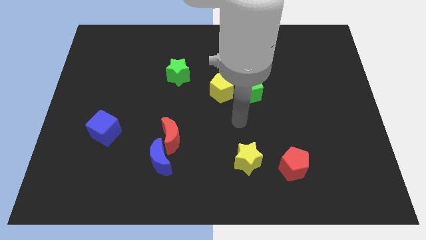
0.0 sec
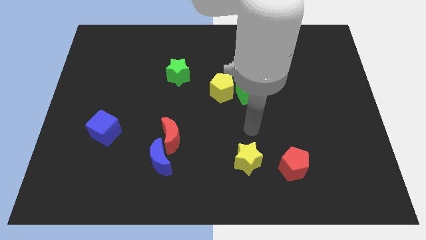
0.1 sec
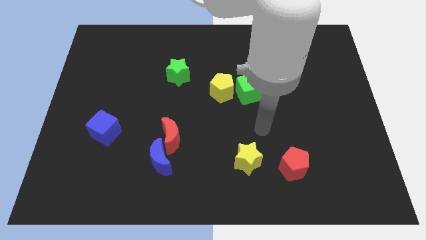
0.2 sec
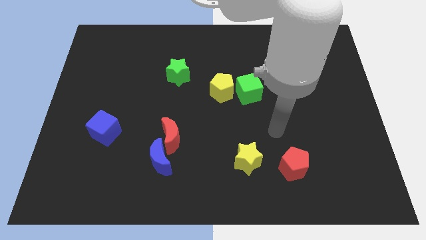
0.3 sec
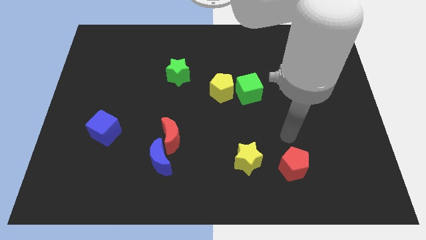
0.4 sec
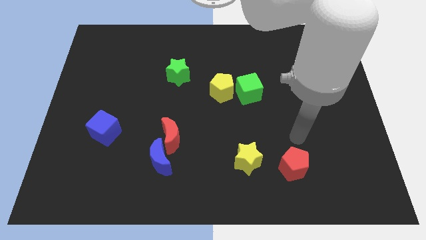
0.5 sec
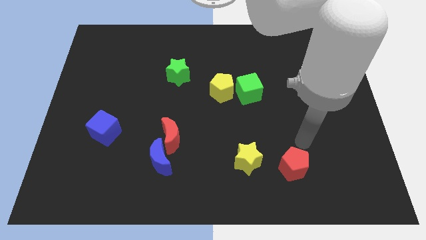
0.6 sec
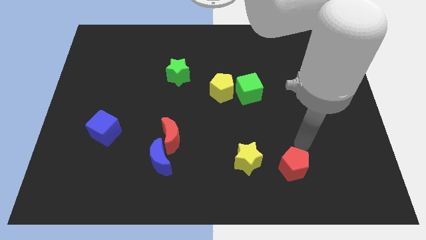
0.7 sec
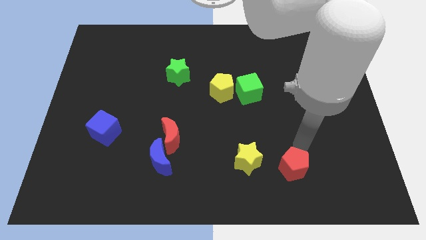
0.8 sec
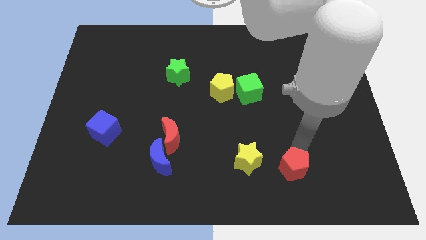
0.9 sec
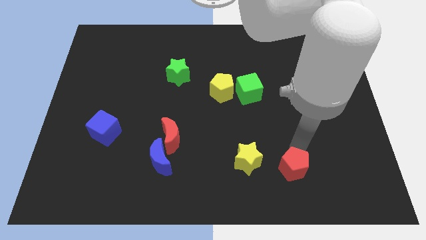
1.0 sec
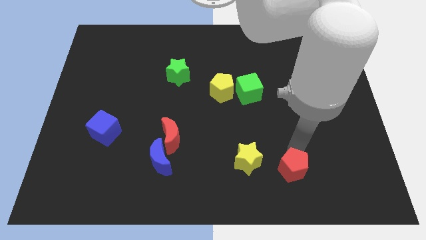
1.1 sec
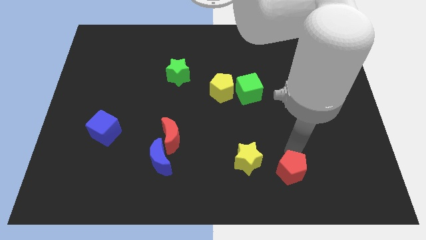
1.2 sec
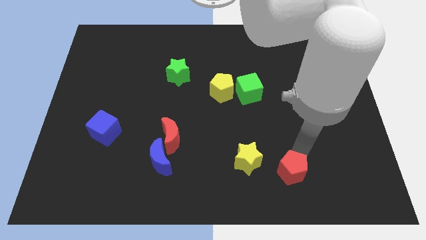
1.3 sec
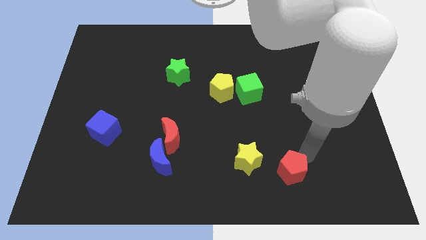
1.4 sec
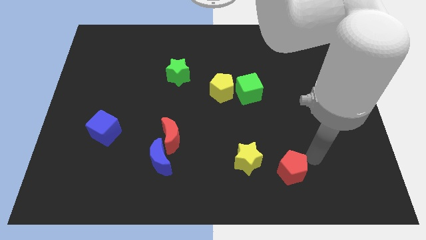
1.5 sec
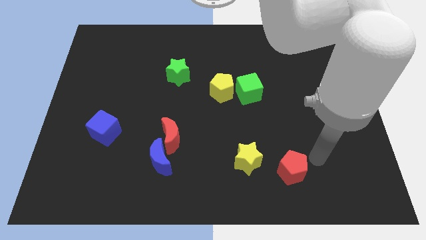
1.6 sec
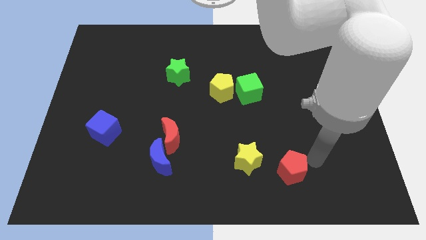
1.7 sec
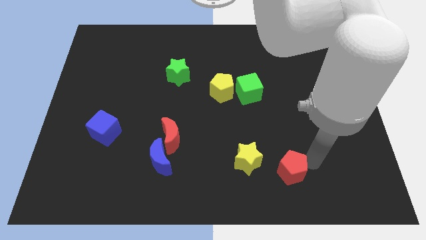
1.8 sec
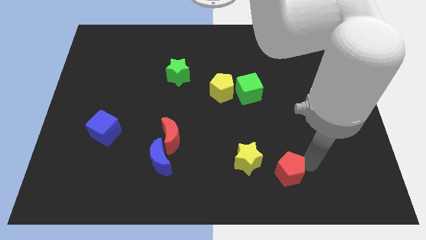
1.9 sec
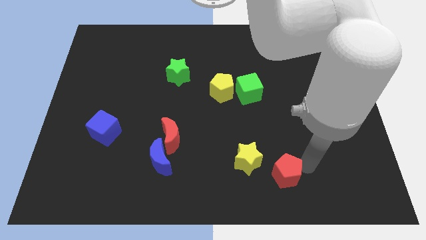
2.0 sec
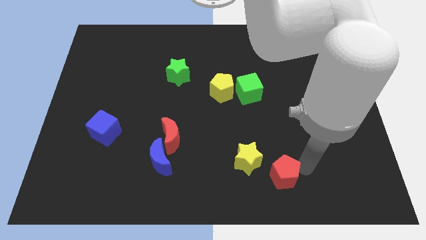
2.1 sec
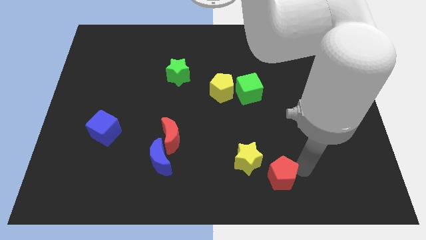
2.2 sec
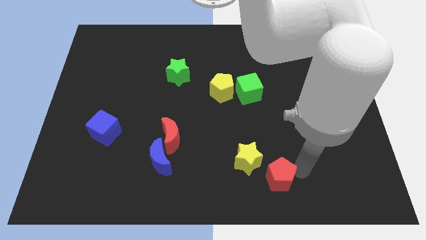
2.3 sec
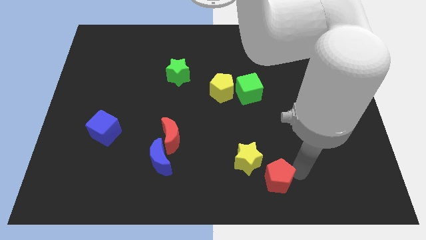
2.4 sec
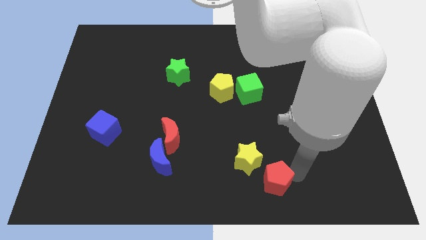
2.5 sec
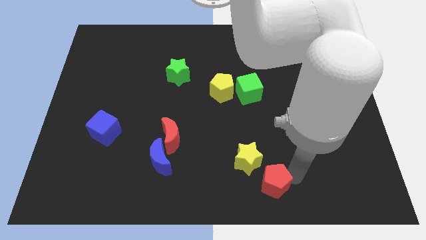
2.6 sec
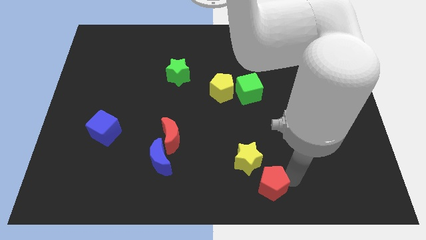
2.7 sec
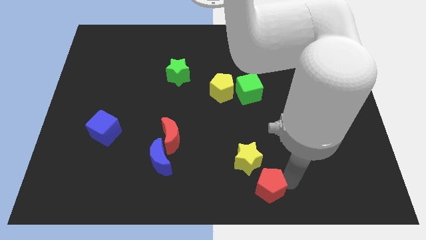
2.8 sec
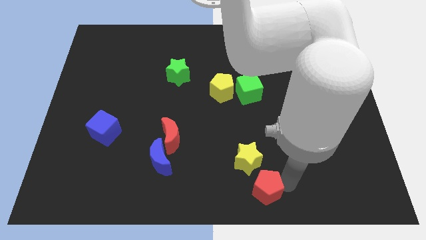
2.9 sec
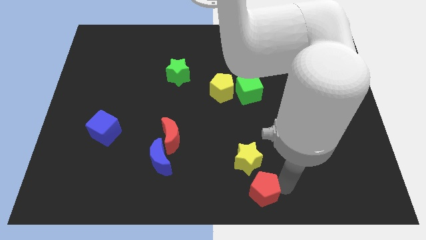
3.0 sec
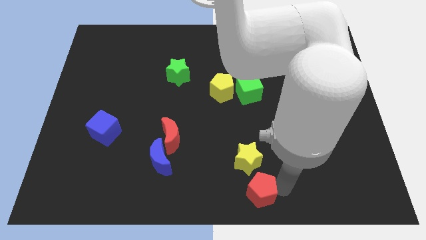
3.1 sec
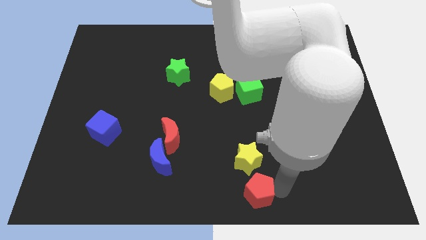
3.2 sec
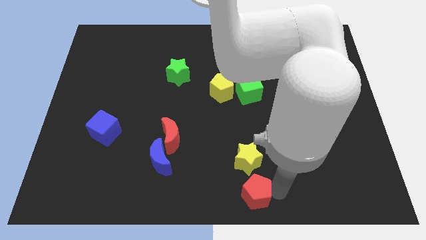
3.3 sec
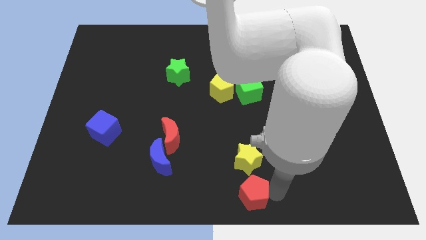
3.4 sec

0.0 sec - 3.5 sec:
slightly slide the red pentagon to the left

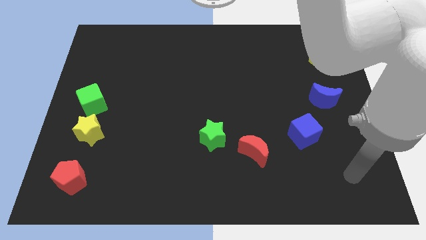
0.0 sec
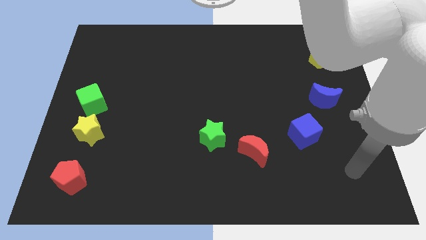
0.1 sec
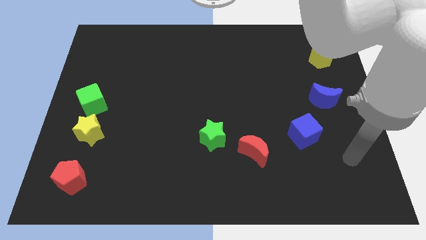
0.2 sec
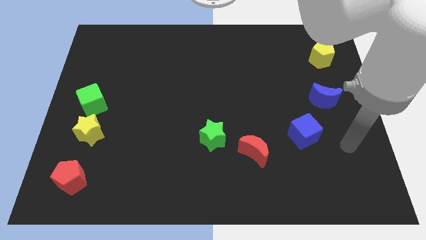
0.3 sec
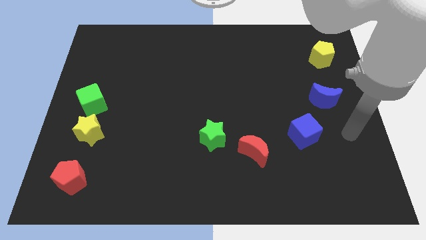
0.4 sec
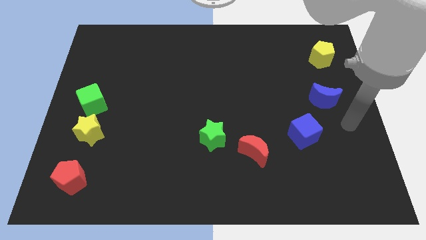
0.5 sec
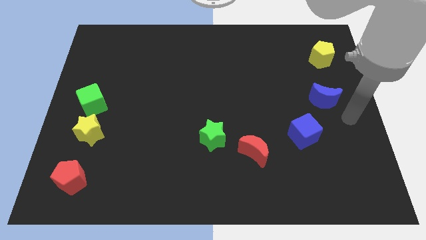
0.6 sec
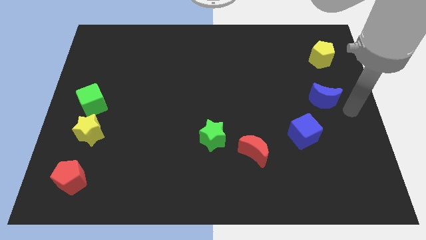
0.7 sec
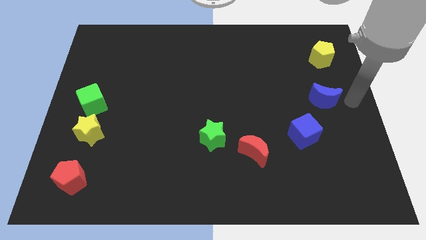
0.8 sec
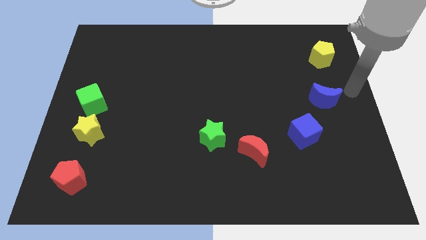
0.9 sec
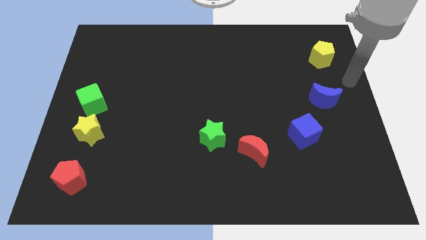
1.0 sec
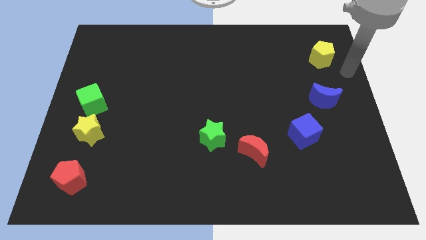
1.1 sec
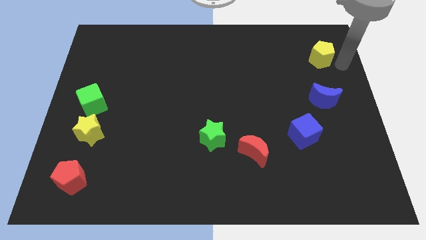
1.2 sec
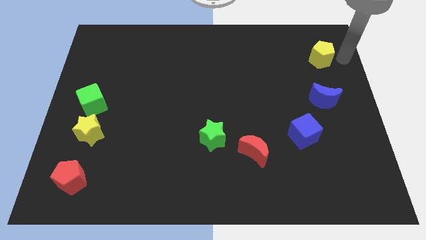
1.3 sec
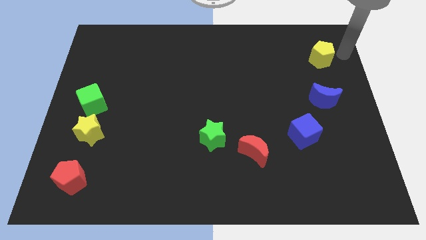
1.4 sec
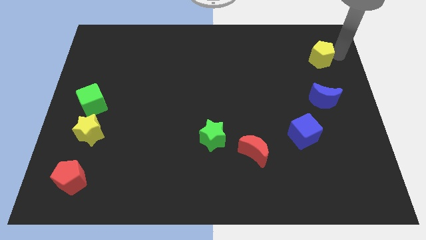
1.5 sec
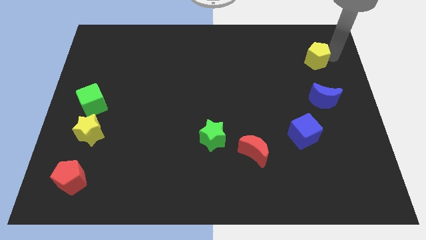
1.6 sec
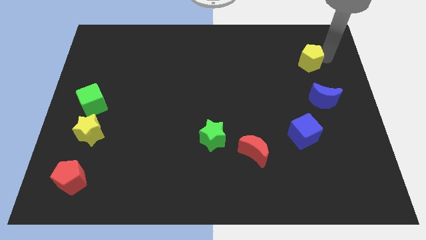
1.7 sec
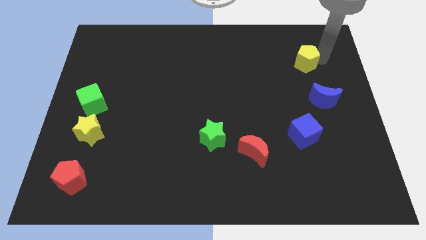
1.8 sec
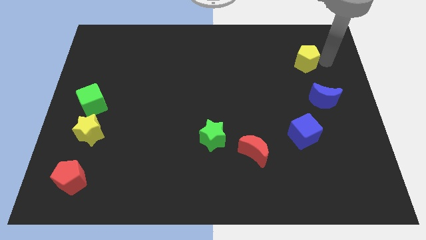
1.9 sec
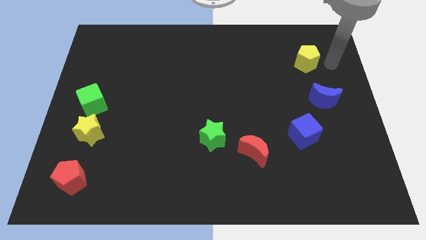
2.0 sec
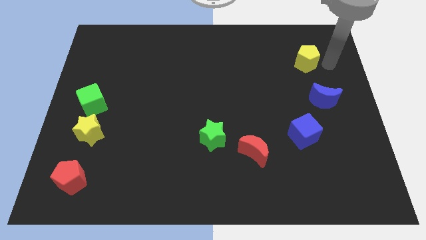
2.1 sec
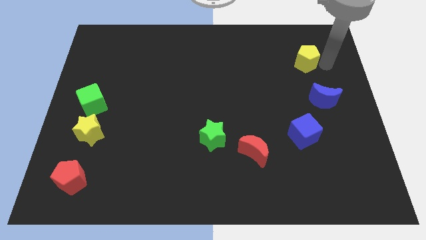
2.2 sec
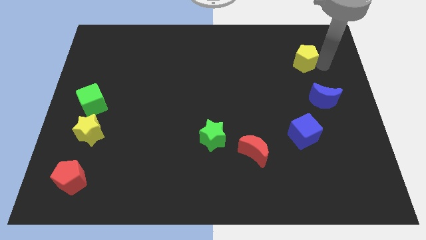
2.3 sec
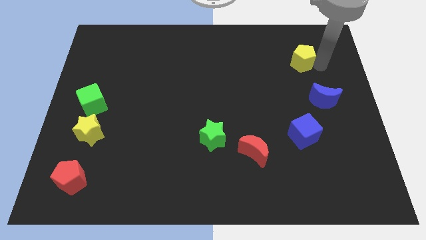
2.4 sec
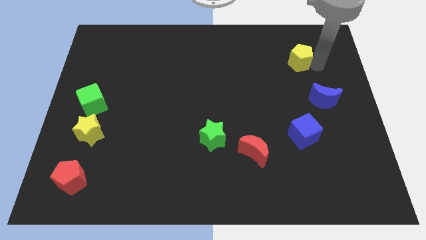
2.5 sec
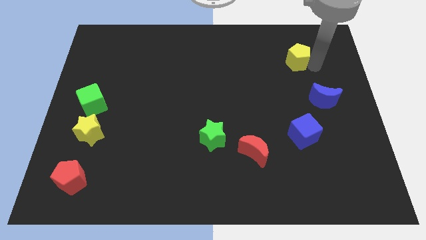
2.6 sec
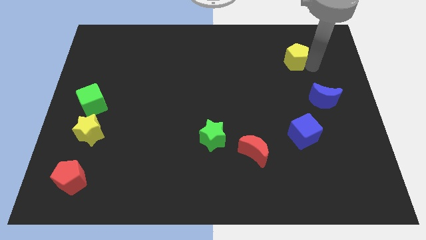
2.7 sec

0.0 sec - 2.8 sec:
push the yellow pentagon left slightly

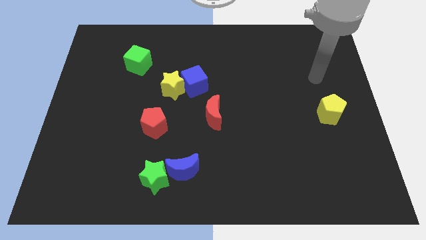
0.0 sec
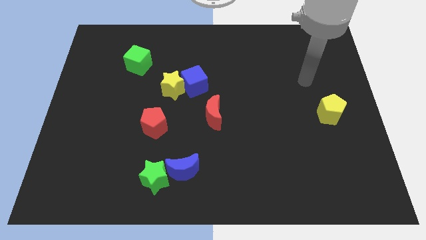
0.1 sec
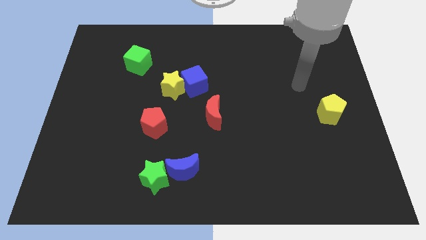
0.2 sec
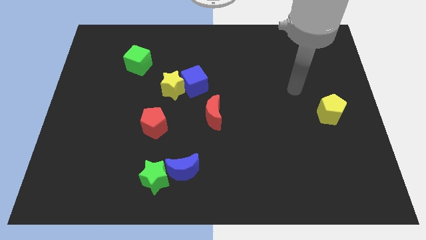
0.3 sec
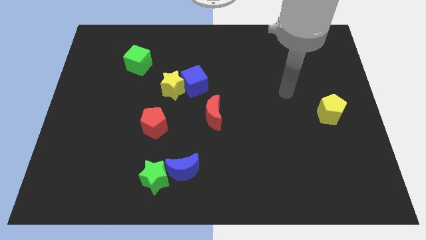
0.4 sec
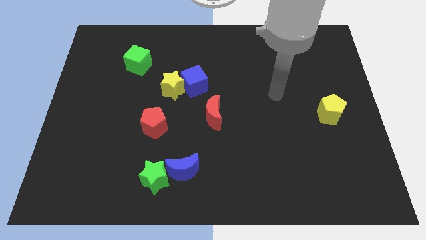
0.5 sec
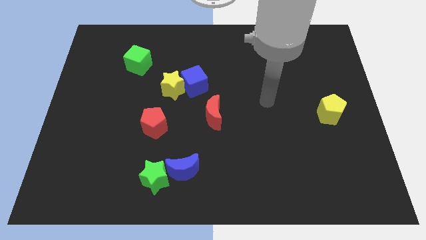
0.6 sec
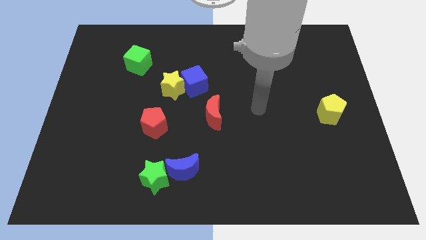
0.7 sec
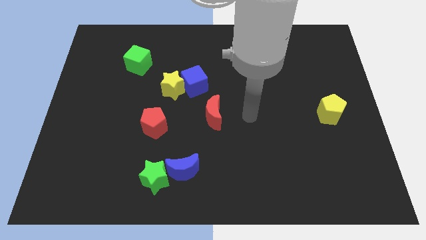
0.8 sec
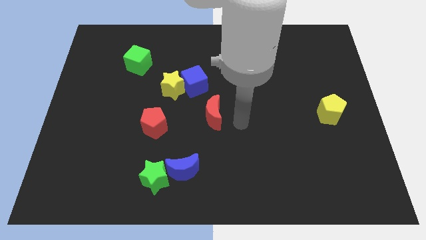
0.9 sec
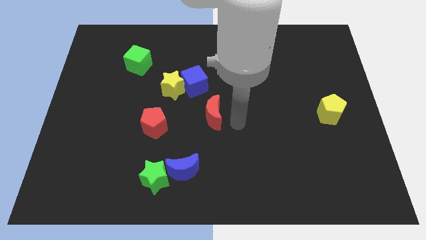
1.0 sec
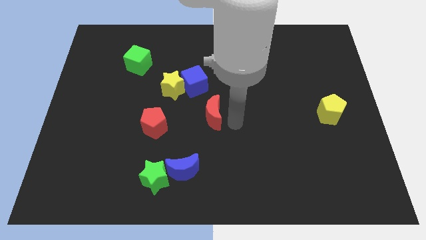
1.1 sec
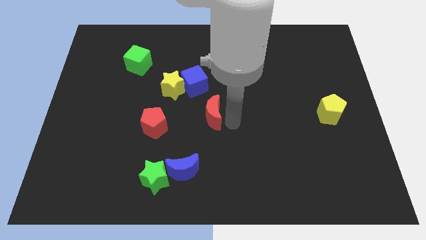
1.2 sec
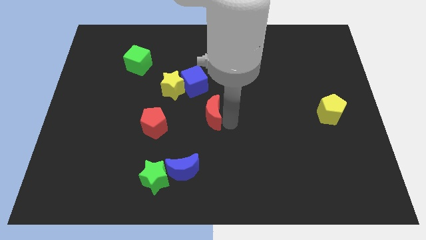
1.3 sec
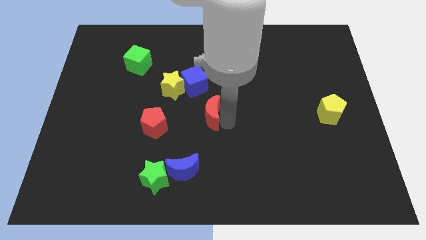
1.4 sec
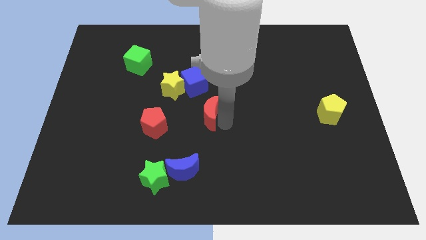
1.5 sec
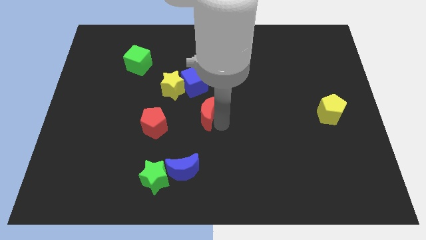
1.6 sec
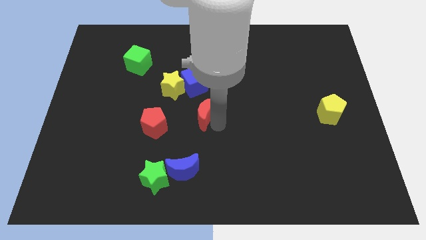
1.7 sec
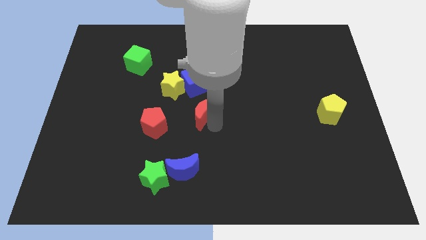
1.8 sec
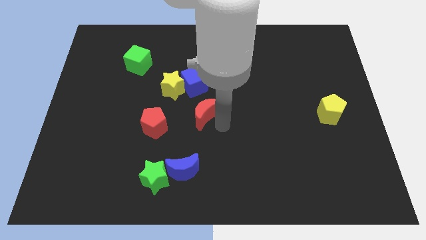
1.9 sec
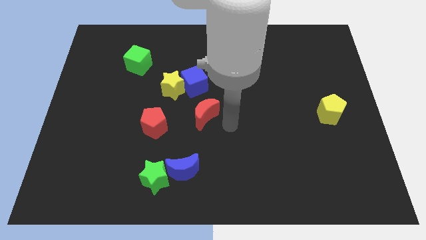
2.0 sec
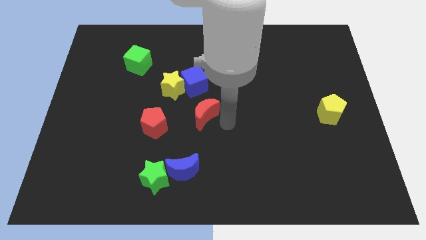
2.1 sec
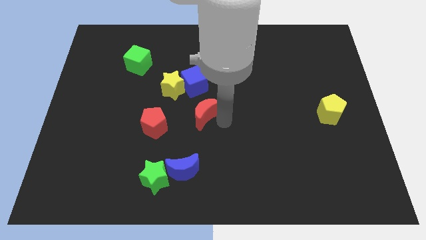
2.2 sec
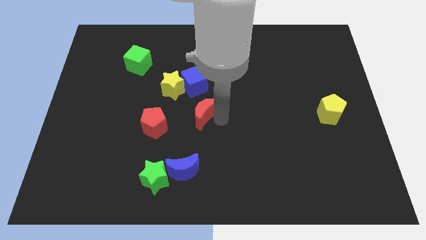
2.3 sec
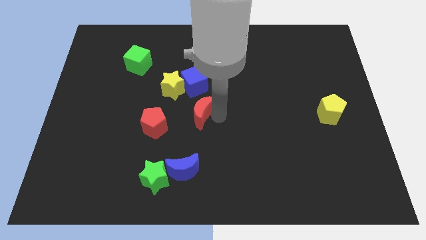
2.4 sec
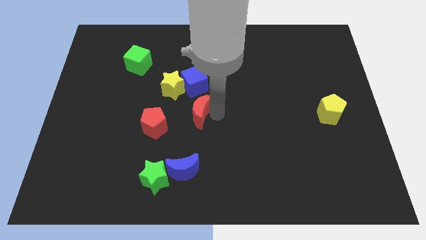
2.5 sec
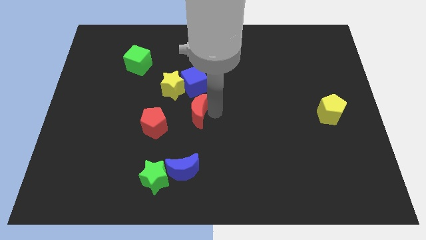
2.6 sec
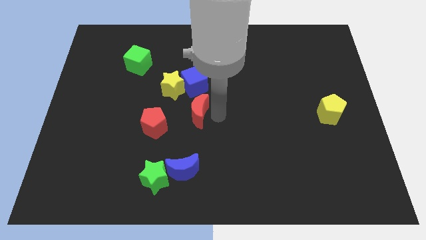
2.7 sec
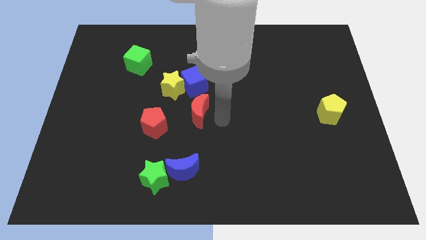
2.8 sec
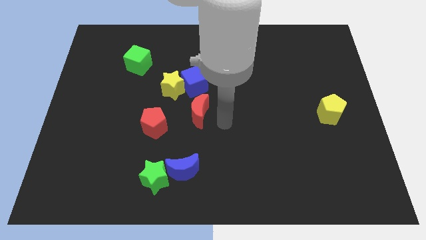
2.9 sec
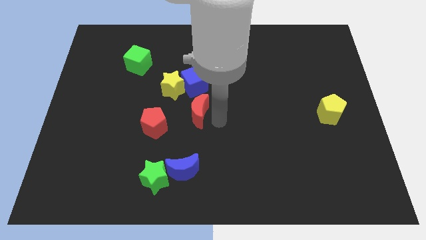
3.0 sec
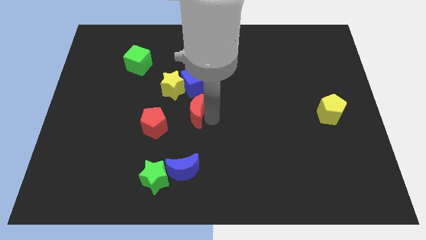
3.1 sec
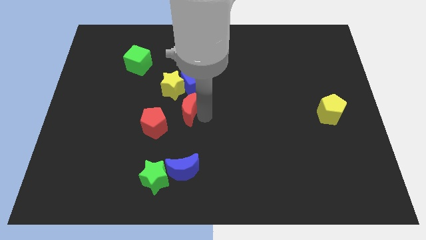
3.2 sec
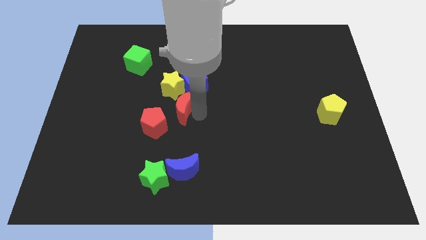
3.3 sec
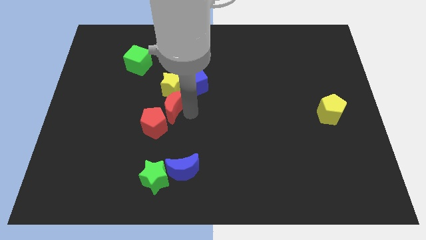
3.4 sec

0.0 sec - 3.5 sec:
push the red moon upwards and left a bit
